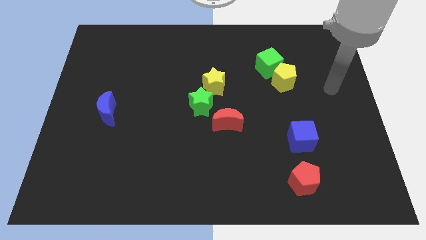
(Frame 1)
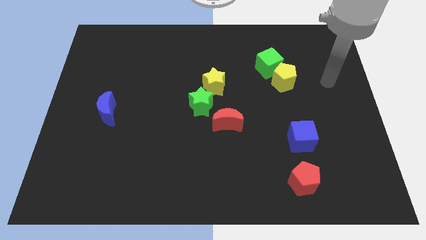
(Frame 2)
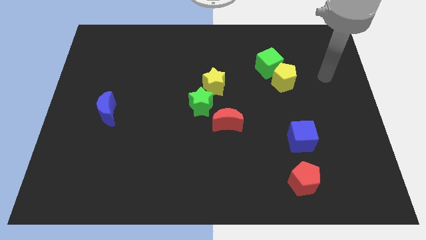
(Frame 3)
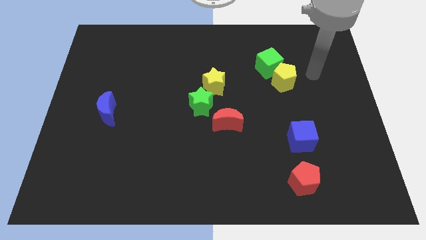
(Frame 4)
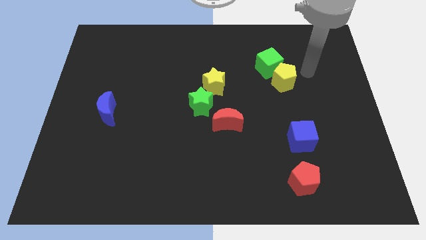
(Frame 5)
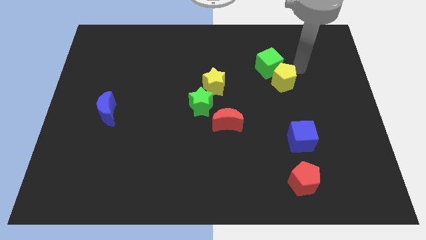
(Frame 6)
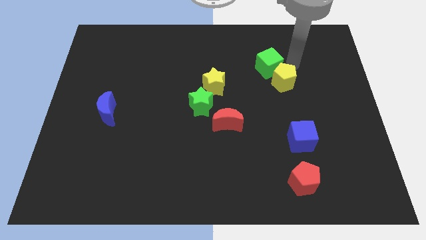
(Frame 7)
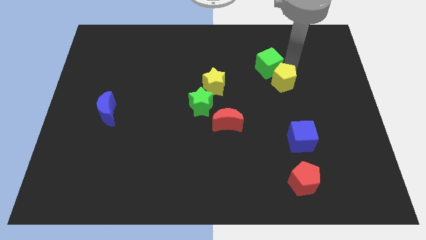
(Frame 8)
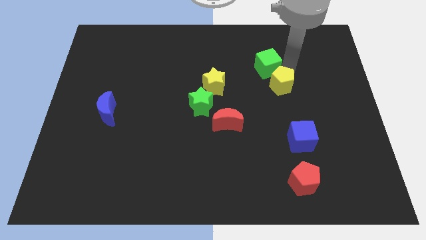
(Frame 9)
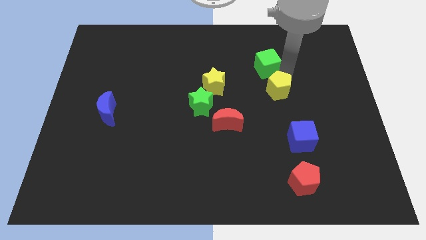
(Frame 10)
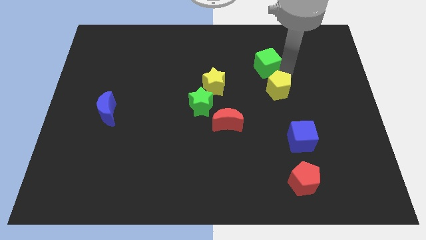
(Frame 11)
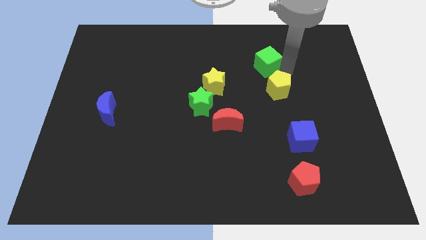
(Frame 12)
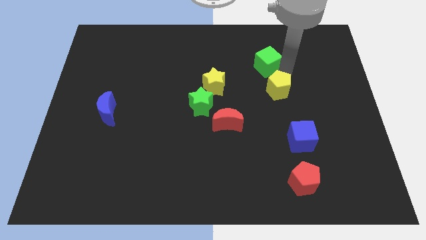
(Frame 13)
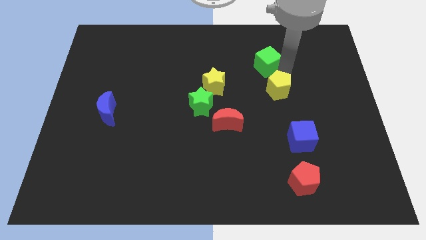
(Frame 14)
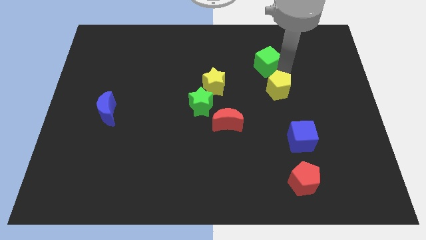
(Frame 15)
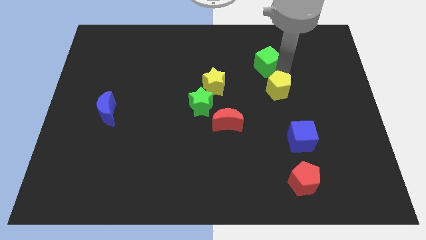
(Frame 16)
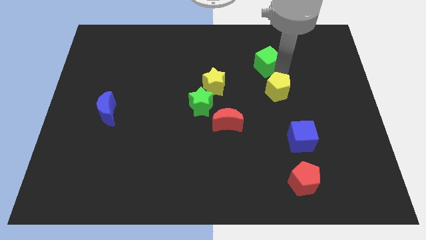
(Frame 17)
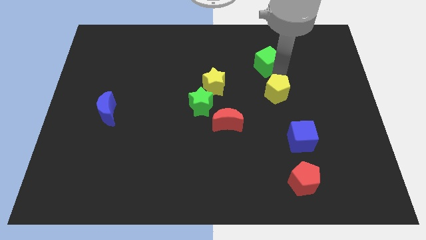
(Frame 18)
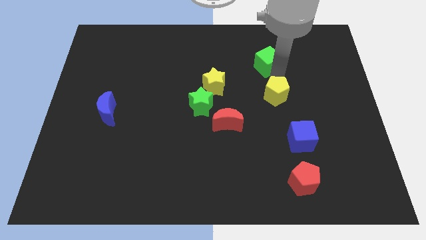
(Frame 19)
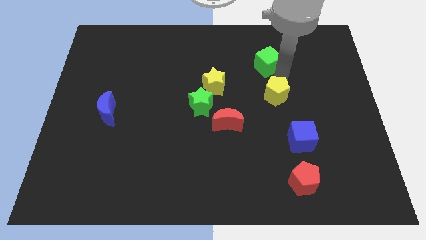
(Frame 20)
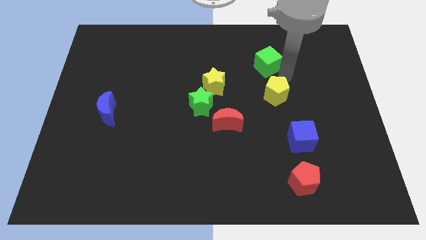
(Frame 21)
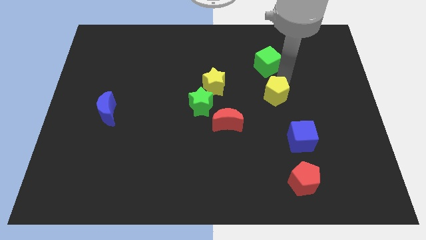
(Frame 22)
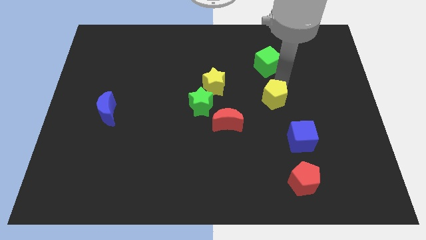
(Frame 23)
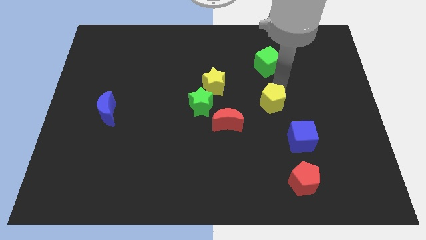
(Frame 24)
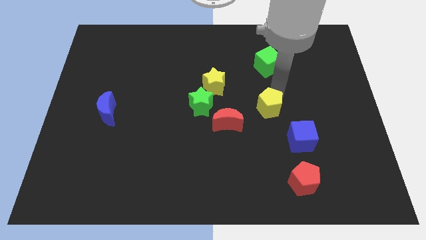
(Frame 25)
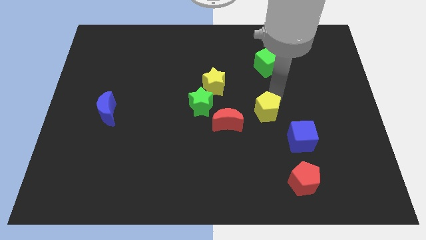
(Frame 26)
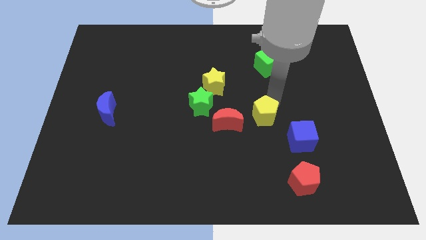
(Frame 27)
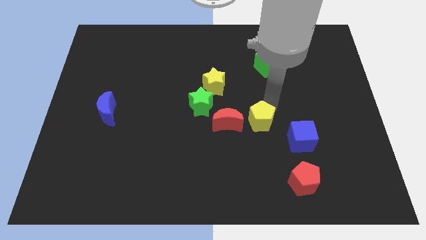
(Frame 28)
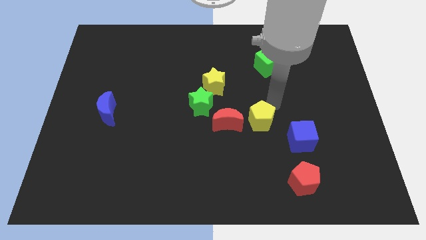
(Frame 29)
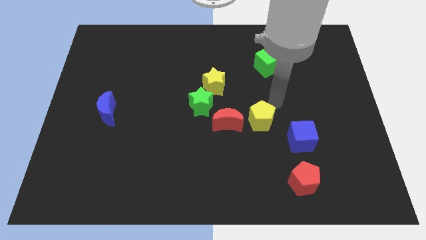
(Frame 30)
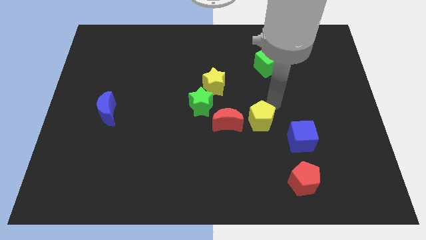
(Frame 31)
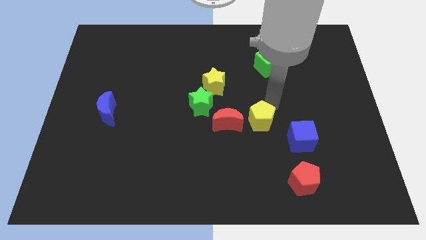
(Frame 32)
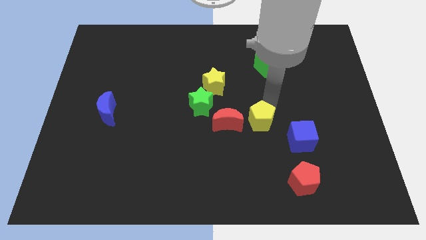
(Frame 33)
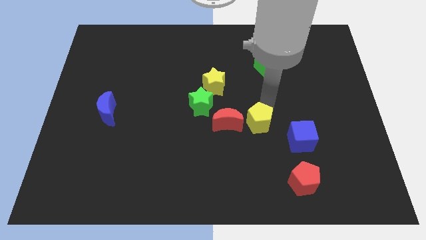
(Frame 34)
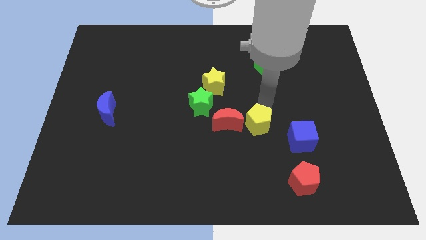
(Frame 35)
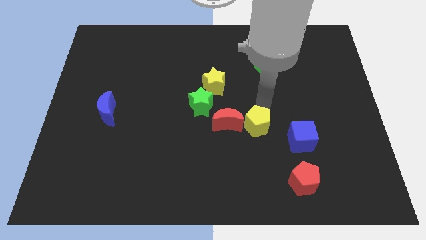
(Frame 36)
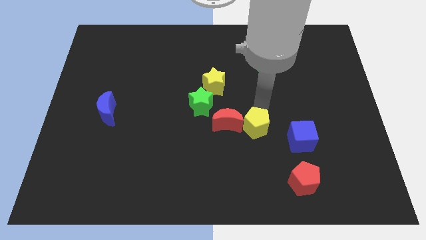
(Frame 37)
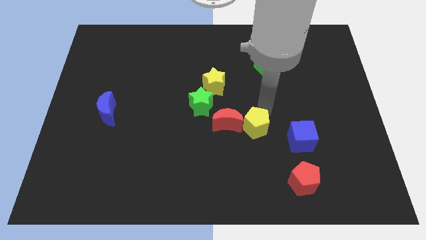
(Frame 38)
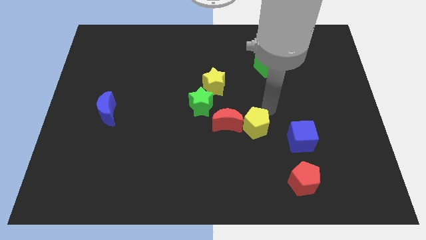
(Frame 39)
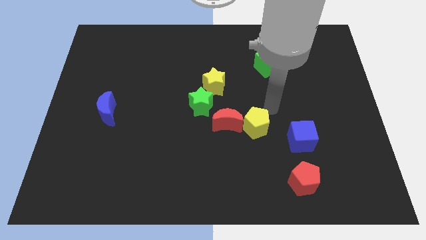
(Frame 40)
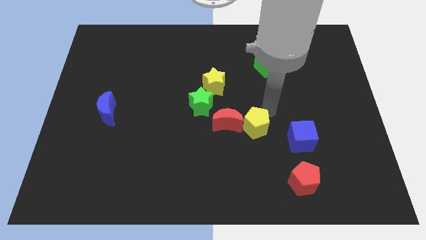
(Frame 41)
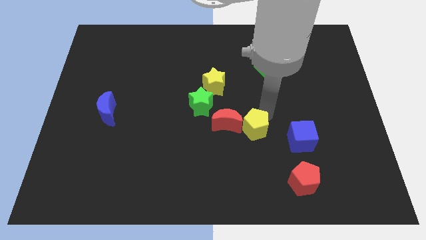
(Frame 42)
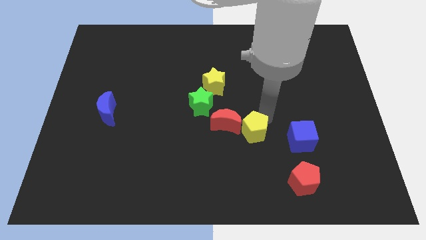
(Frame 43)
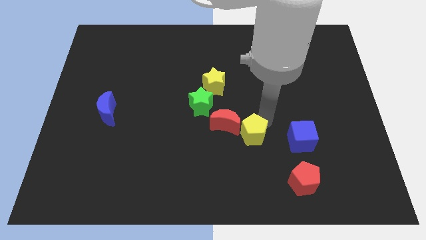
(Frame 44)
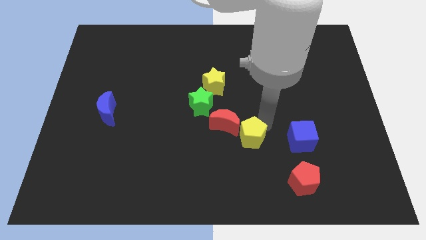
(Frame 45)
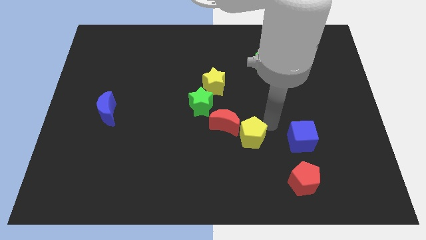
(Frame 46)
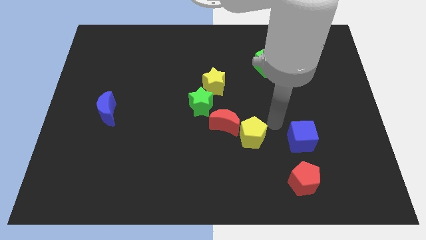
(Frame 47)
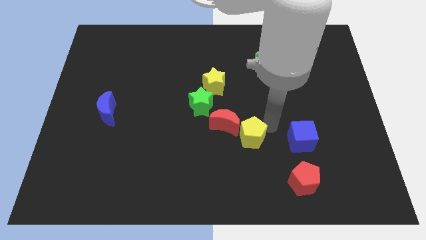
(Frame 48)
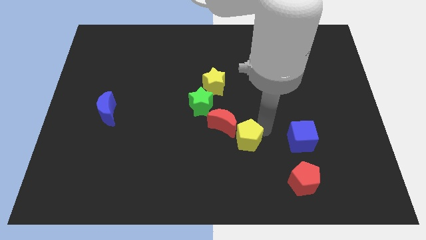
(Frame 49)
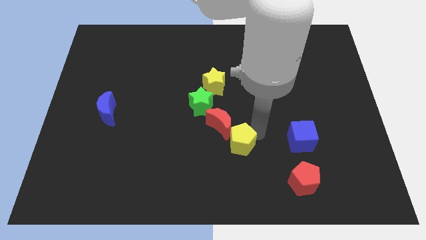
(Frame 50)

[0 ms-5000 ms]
slide the yellow pentagon down and then to the left
